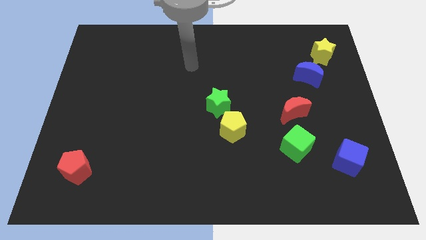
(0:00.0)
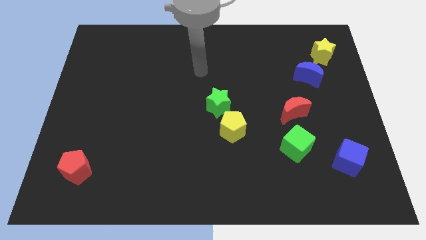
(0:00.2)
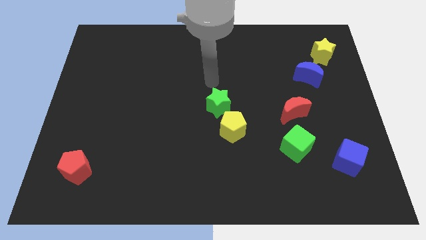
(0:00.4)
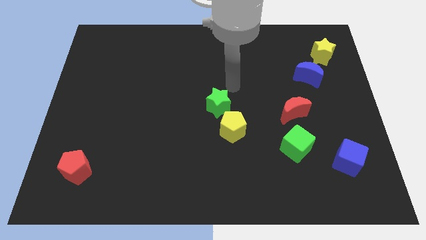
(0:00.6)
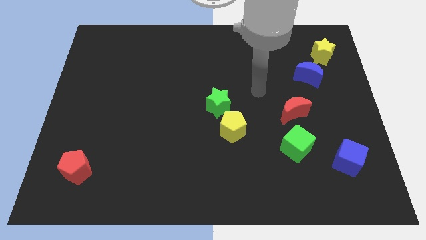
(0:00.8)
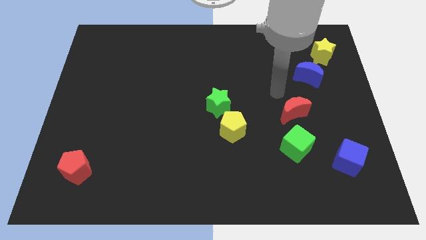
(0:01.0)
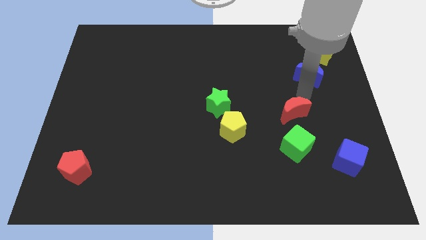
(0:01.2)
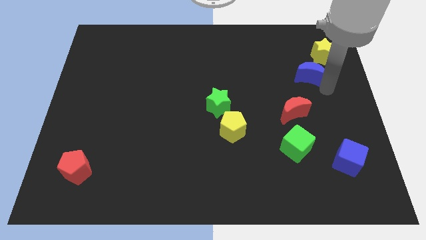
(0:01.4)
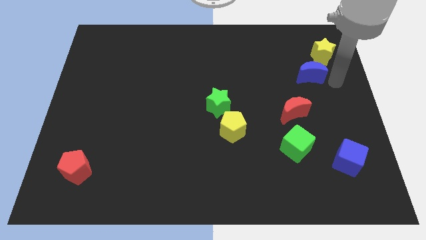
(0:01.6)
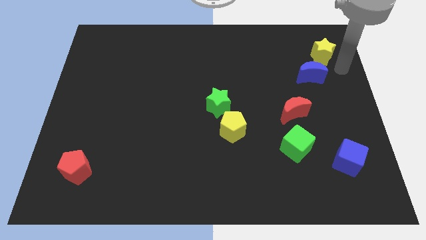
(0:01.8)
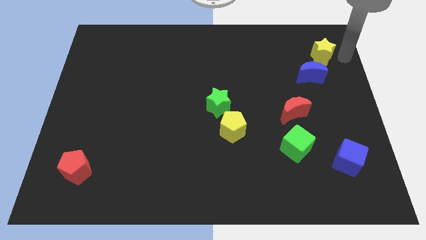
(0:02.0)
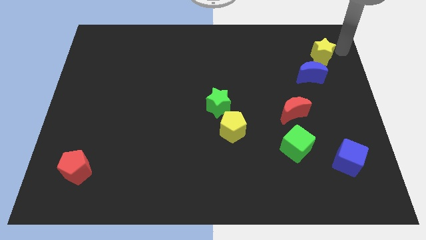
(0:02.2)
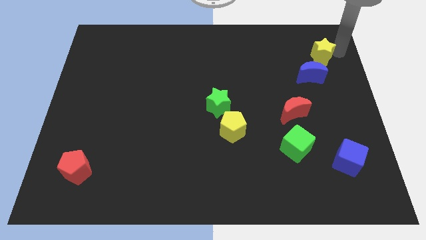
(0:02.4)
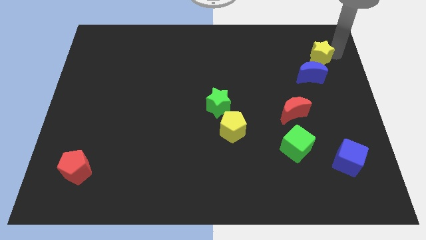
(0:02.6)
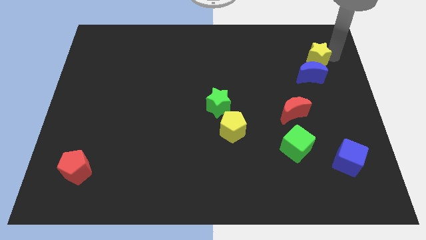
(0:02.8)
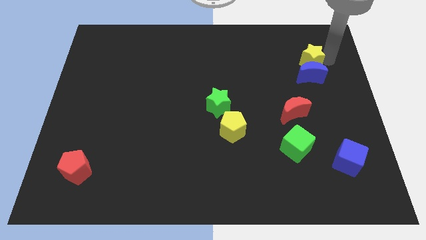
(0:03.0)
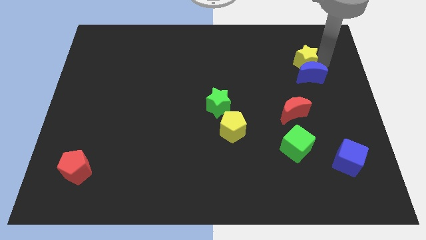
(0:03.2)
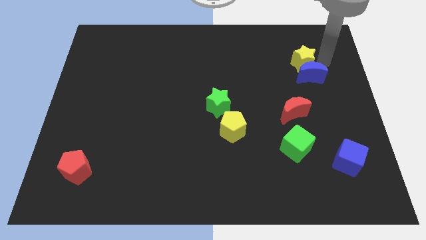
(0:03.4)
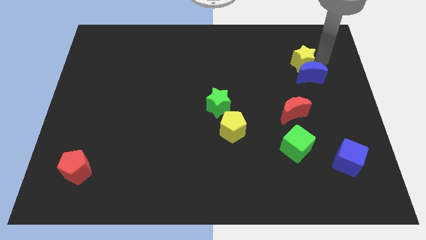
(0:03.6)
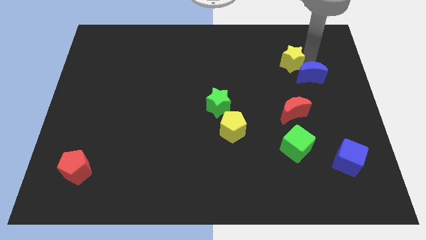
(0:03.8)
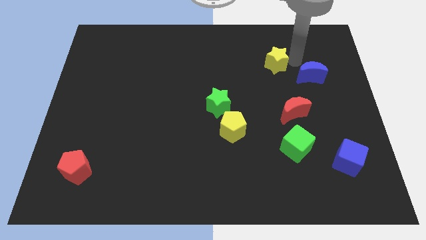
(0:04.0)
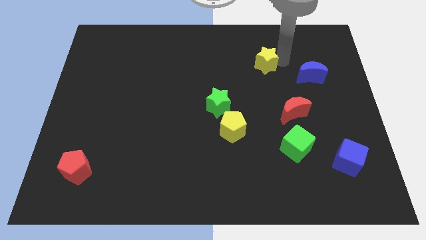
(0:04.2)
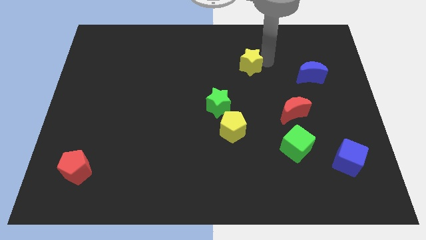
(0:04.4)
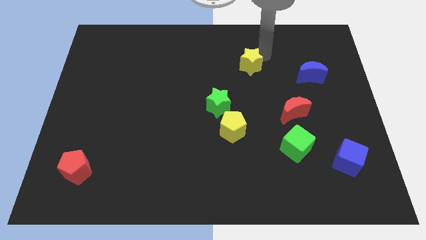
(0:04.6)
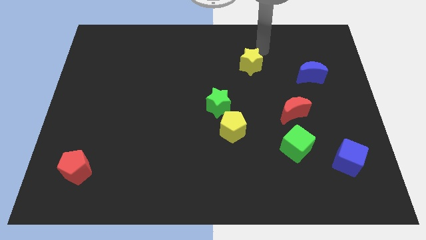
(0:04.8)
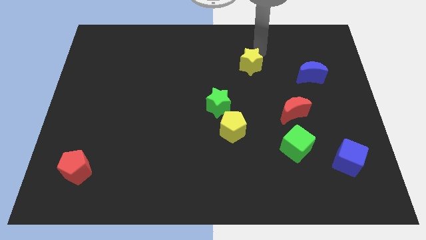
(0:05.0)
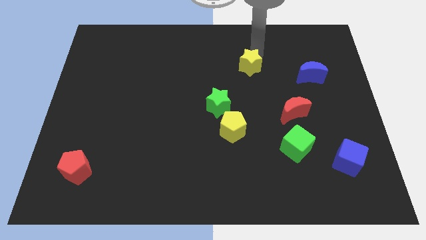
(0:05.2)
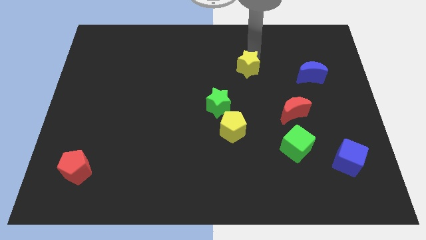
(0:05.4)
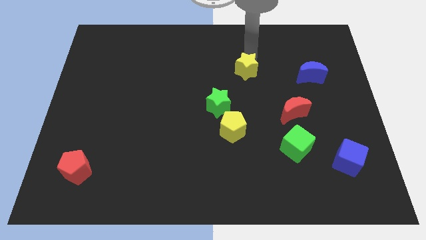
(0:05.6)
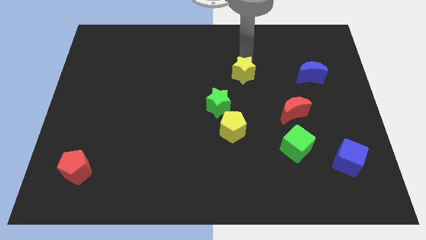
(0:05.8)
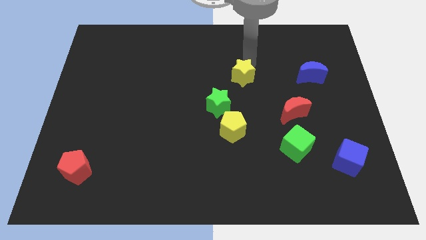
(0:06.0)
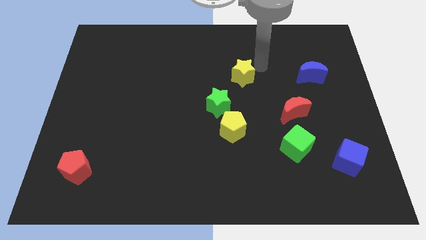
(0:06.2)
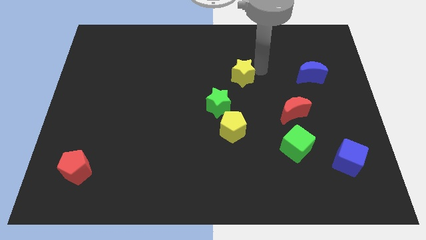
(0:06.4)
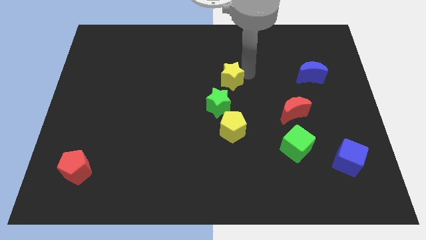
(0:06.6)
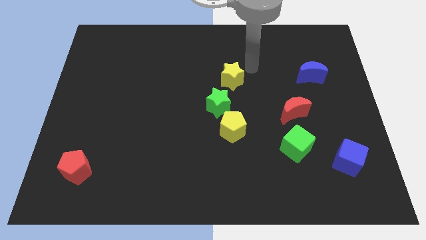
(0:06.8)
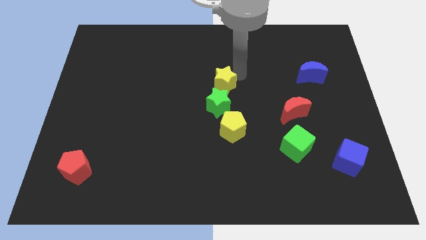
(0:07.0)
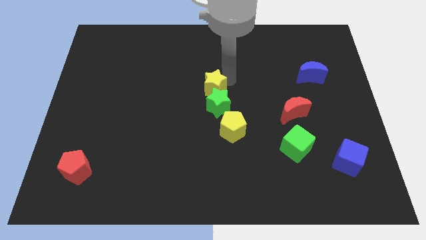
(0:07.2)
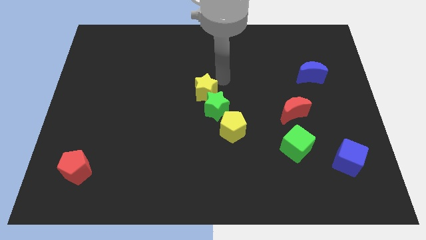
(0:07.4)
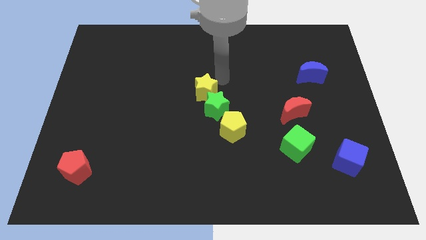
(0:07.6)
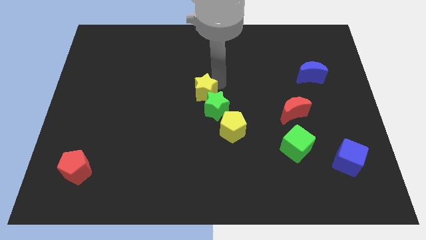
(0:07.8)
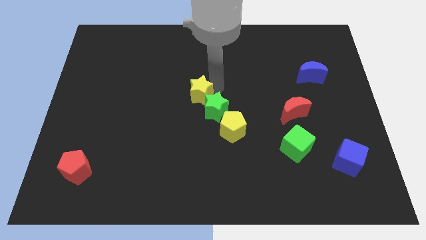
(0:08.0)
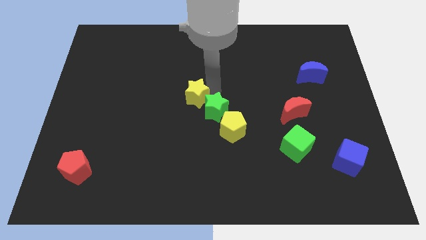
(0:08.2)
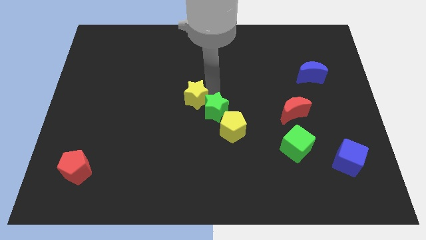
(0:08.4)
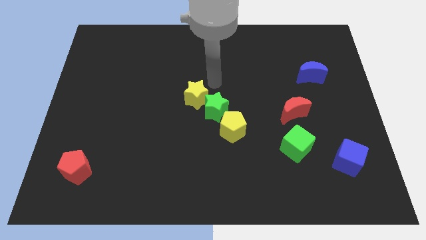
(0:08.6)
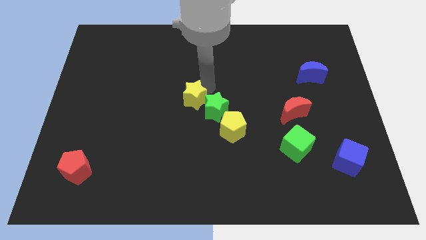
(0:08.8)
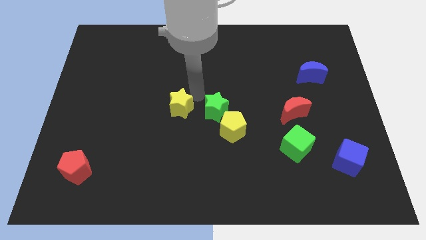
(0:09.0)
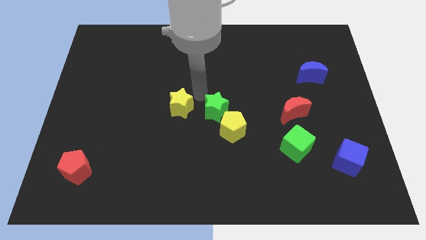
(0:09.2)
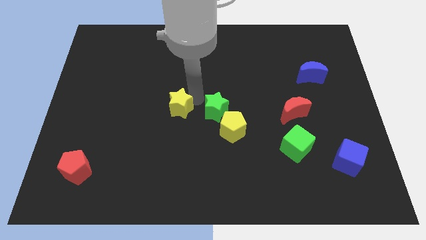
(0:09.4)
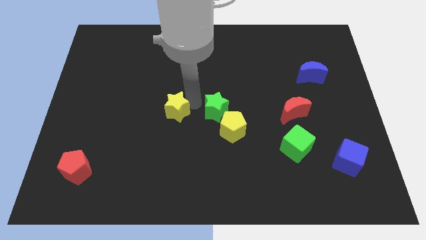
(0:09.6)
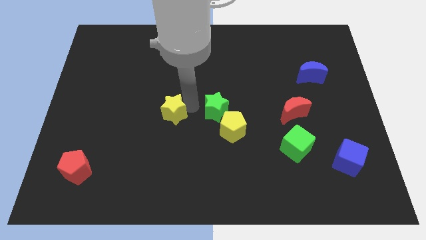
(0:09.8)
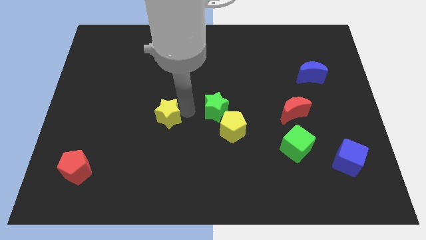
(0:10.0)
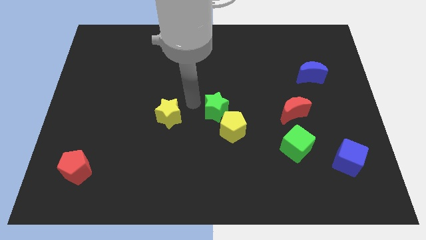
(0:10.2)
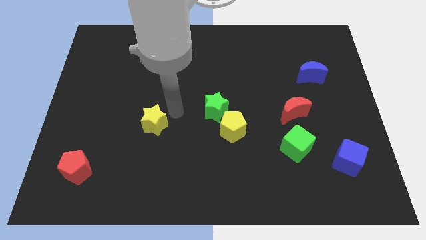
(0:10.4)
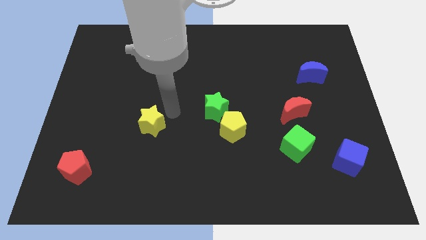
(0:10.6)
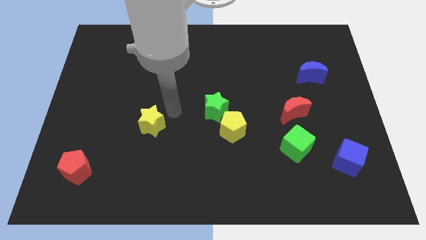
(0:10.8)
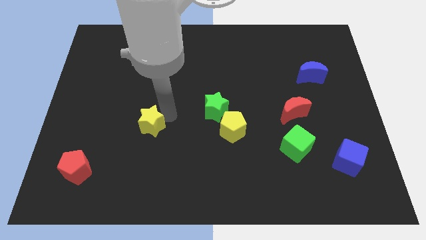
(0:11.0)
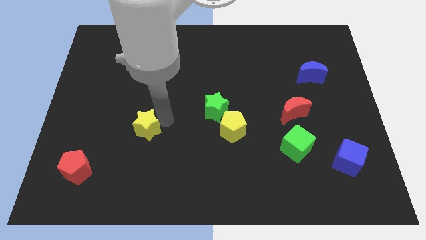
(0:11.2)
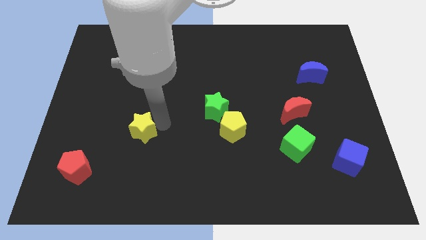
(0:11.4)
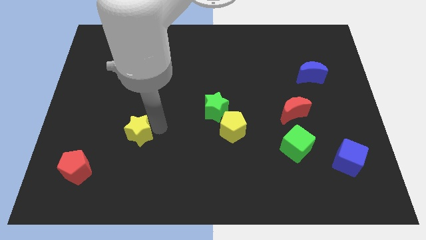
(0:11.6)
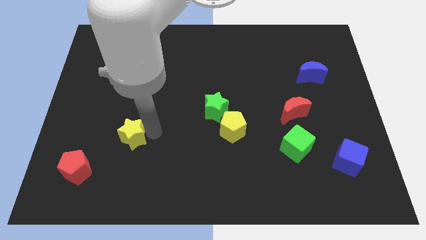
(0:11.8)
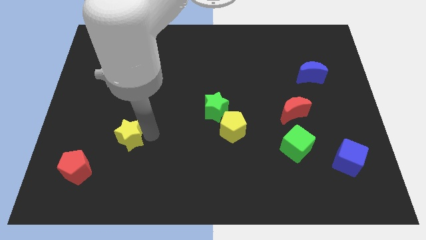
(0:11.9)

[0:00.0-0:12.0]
push the yellow star to the top right side of the red pentagon
